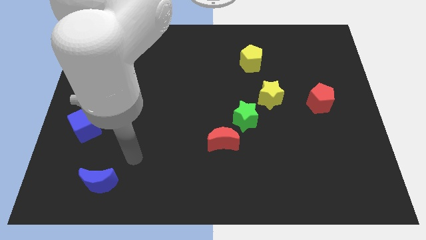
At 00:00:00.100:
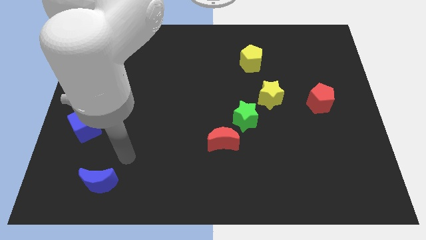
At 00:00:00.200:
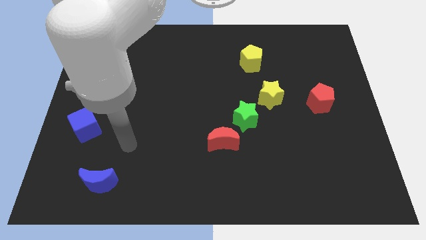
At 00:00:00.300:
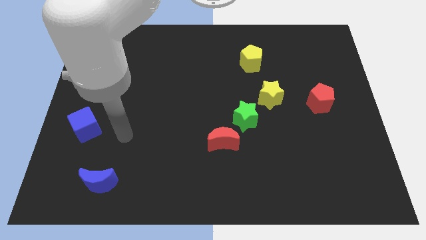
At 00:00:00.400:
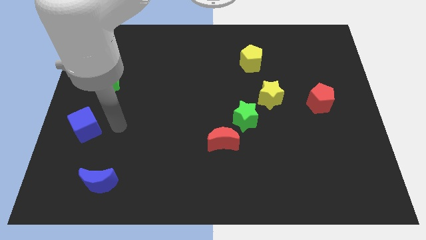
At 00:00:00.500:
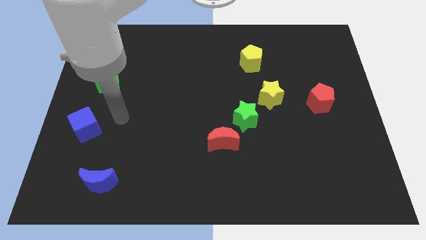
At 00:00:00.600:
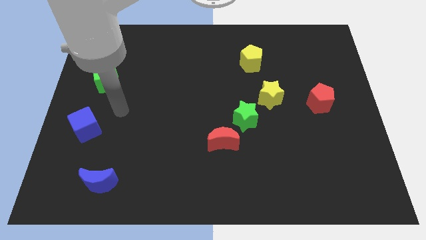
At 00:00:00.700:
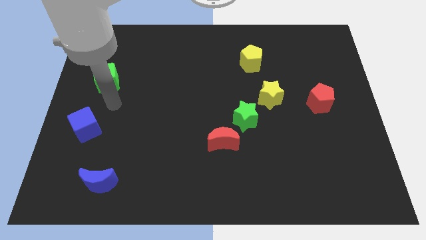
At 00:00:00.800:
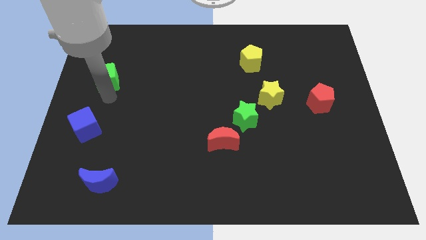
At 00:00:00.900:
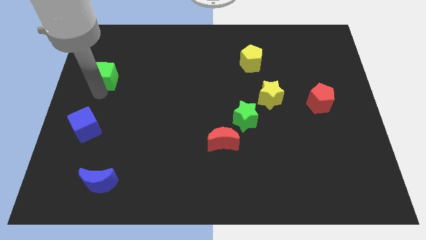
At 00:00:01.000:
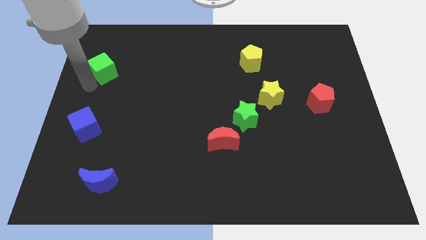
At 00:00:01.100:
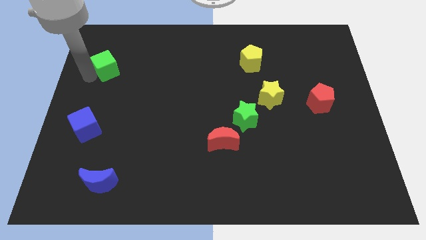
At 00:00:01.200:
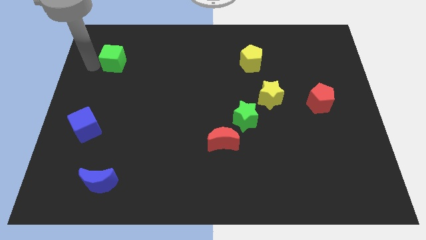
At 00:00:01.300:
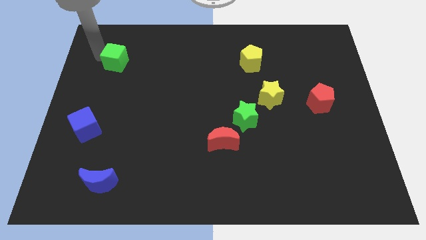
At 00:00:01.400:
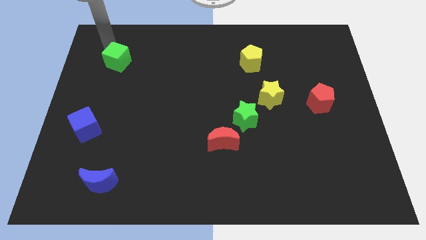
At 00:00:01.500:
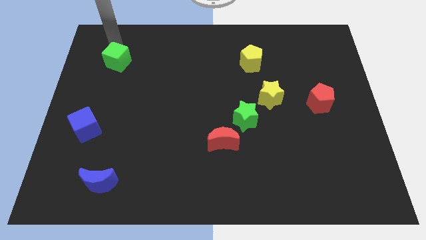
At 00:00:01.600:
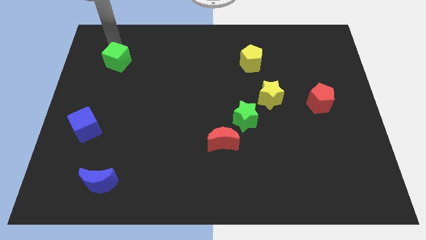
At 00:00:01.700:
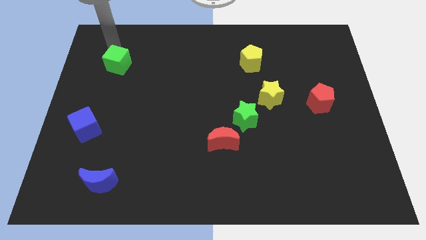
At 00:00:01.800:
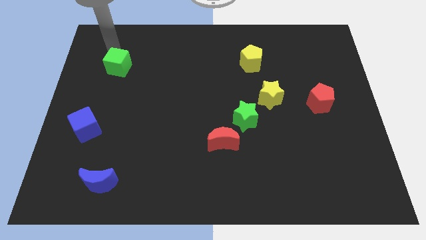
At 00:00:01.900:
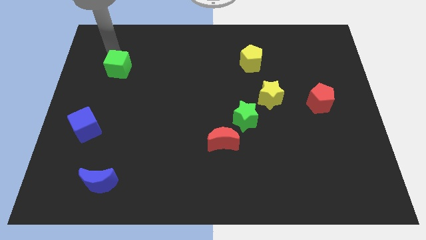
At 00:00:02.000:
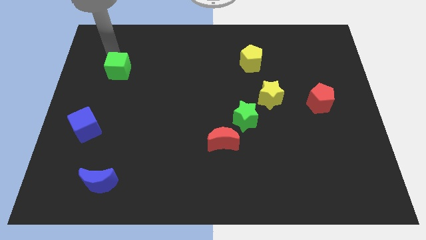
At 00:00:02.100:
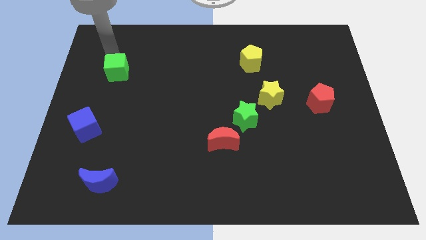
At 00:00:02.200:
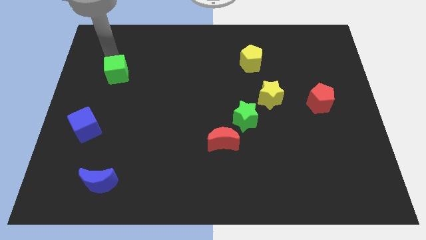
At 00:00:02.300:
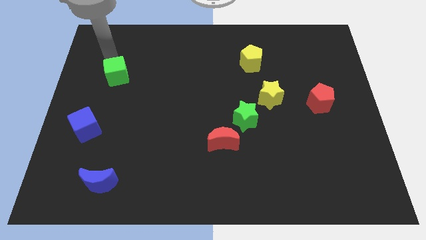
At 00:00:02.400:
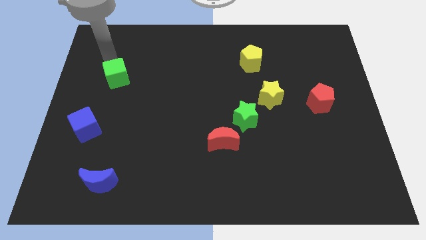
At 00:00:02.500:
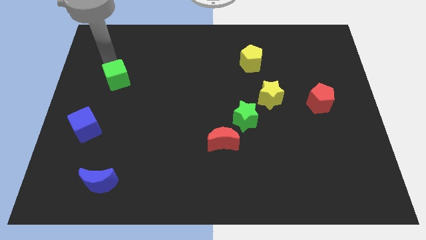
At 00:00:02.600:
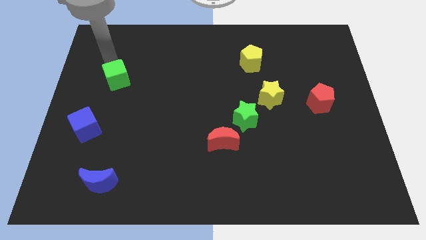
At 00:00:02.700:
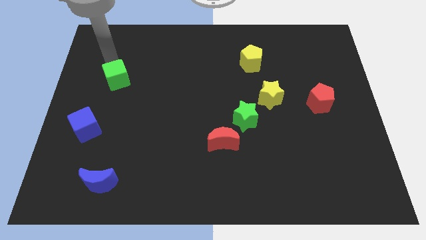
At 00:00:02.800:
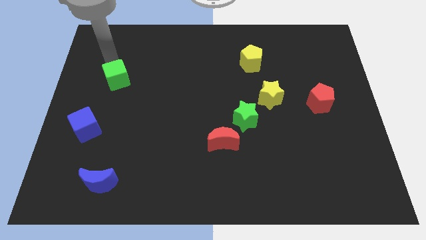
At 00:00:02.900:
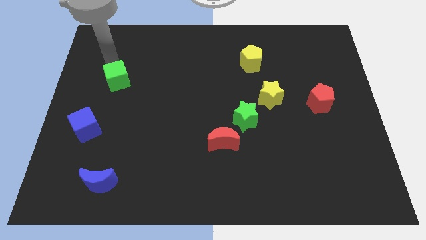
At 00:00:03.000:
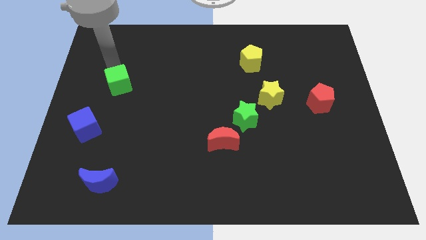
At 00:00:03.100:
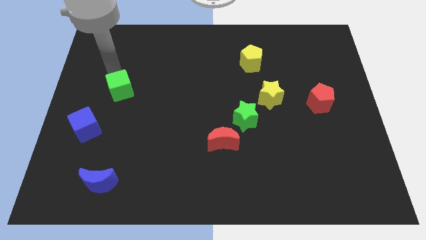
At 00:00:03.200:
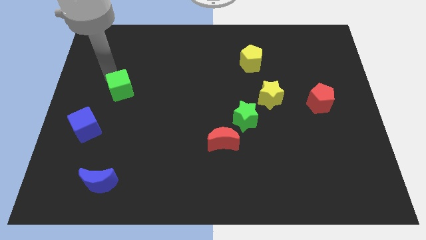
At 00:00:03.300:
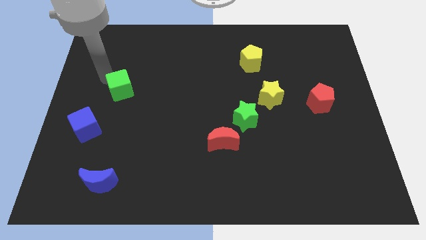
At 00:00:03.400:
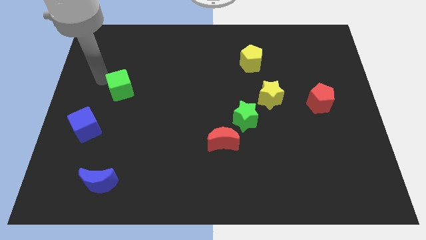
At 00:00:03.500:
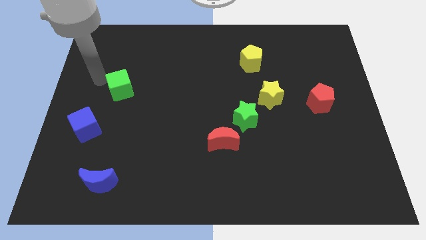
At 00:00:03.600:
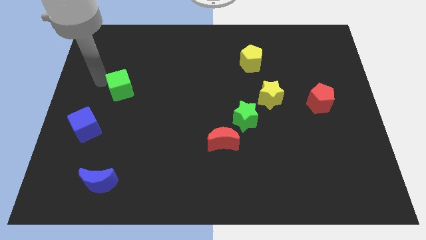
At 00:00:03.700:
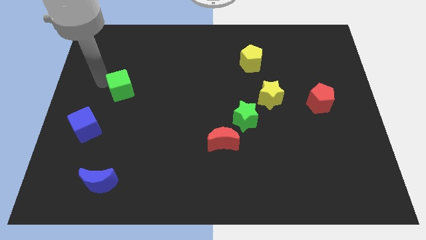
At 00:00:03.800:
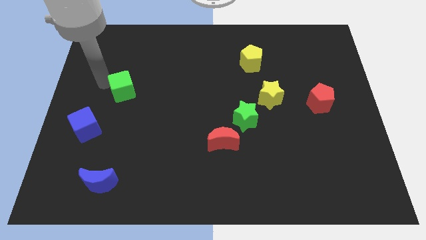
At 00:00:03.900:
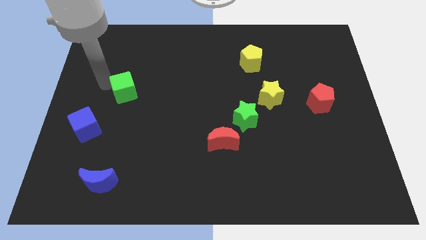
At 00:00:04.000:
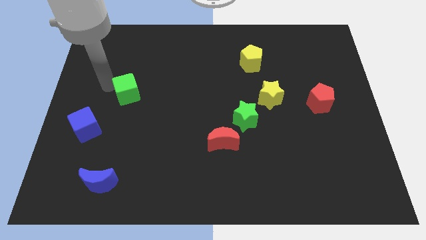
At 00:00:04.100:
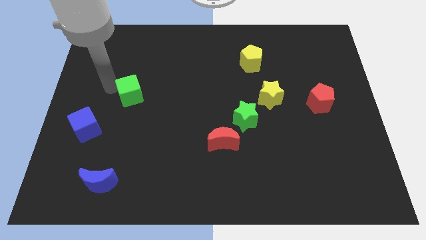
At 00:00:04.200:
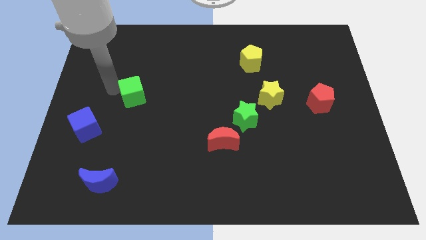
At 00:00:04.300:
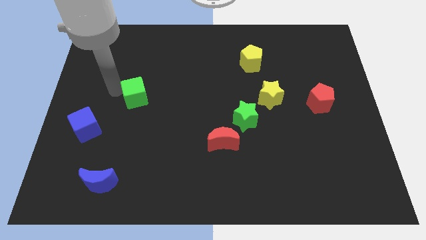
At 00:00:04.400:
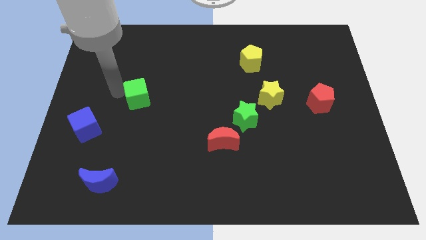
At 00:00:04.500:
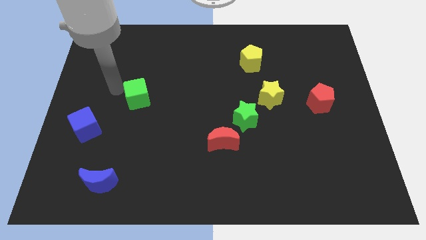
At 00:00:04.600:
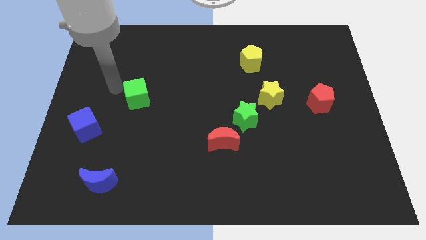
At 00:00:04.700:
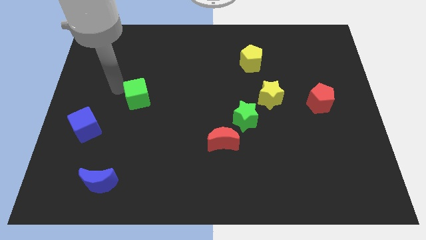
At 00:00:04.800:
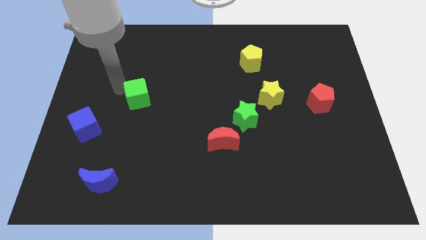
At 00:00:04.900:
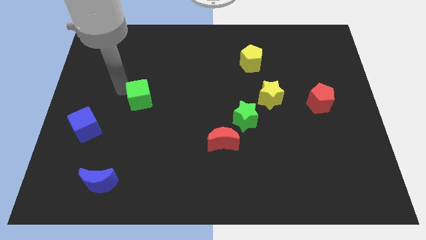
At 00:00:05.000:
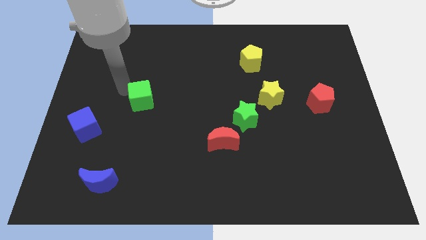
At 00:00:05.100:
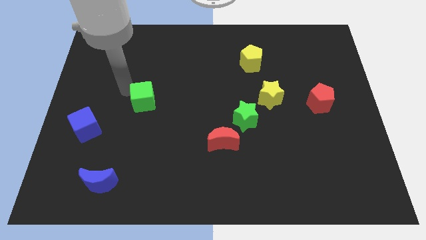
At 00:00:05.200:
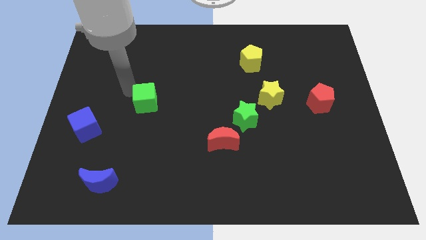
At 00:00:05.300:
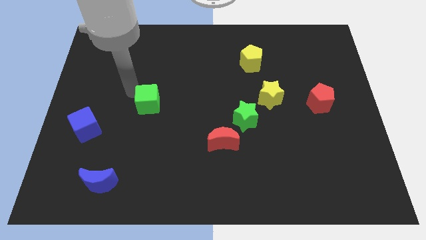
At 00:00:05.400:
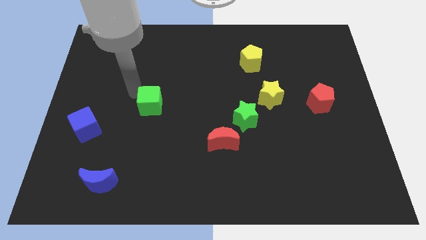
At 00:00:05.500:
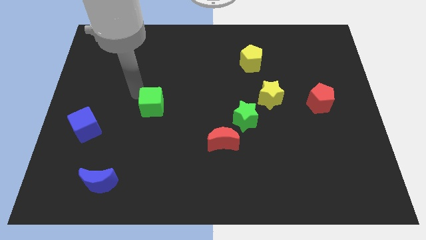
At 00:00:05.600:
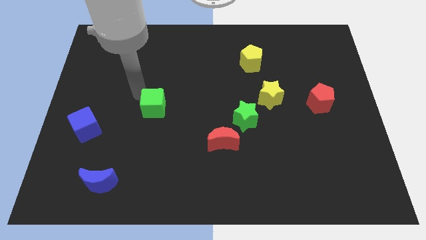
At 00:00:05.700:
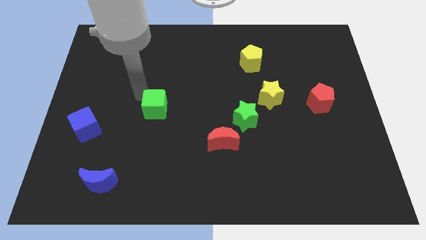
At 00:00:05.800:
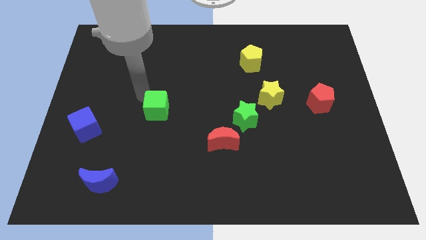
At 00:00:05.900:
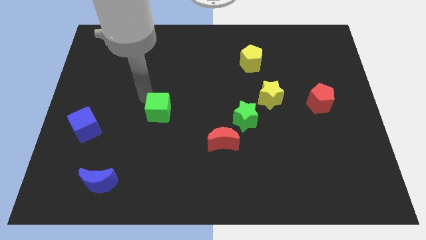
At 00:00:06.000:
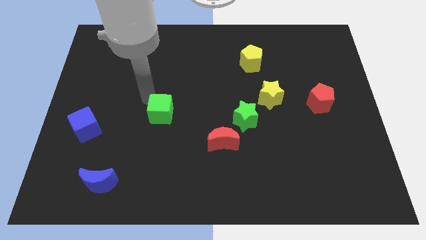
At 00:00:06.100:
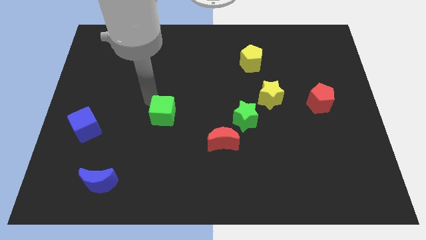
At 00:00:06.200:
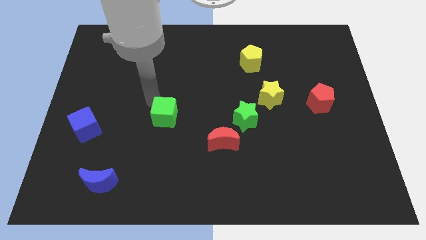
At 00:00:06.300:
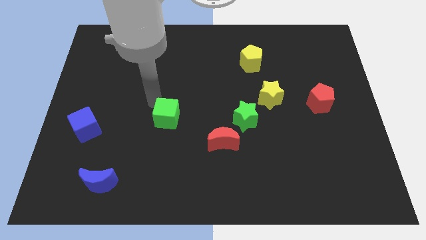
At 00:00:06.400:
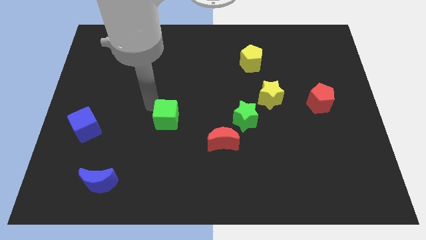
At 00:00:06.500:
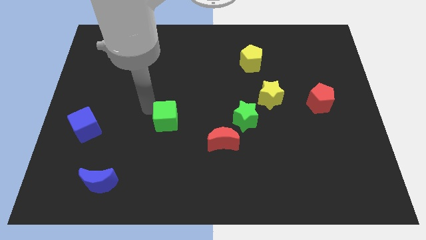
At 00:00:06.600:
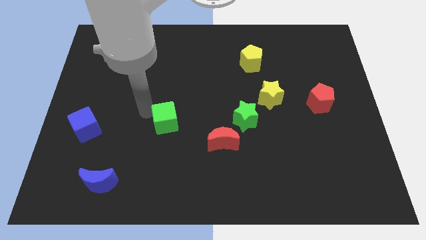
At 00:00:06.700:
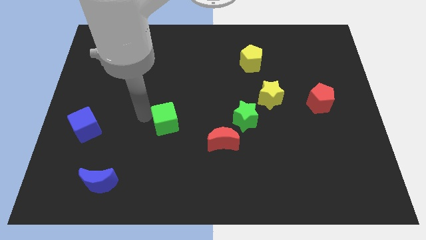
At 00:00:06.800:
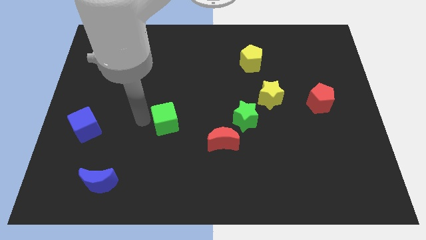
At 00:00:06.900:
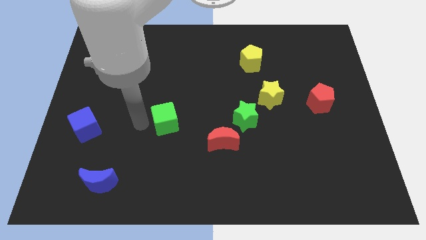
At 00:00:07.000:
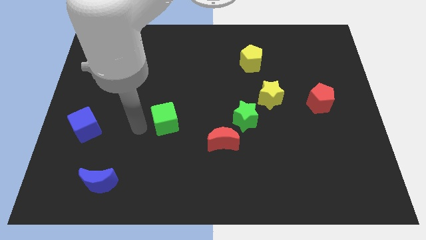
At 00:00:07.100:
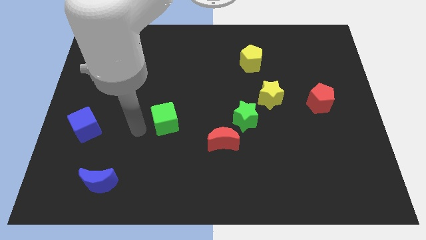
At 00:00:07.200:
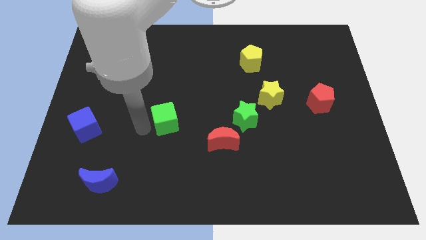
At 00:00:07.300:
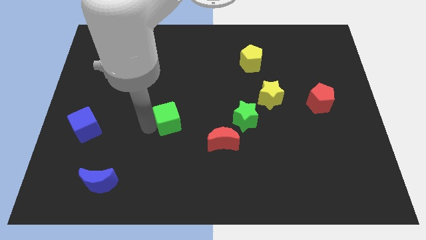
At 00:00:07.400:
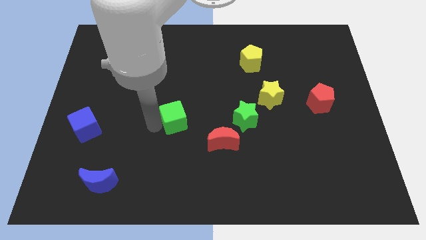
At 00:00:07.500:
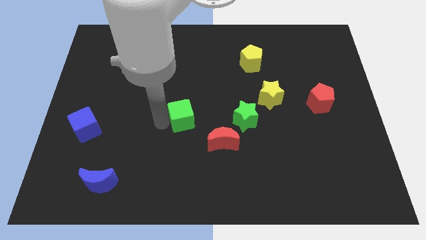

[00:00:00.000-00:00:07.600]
put the green cube diagonally up and to the left of the red moon
